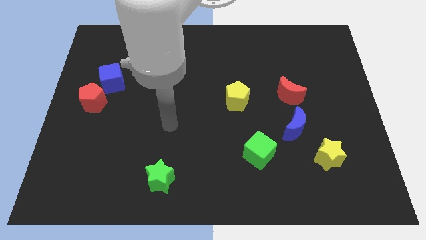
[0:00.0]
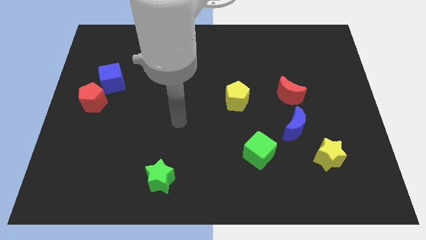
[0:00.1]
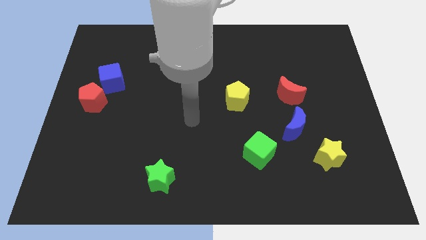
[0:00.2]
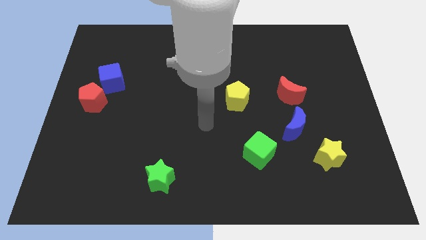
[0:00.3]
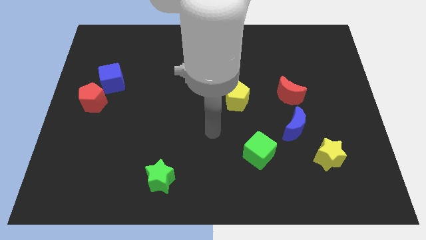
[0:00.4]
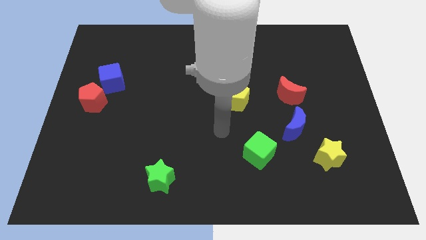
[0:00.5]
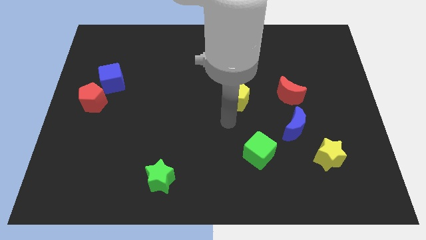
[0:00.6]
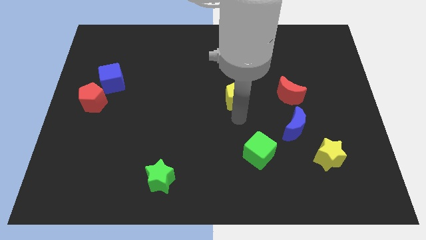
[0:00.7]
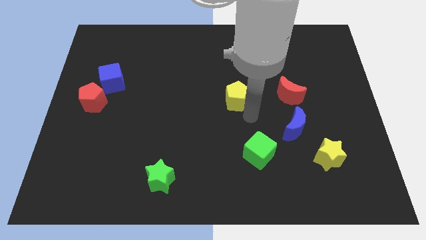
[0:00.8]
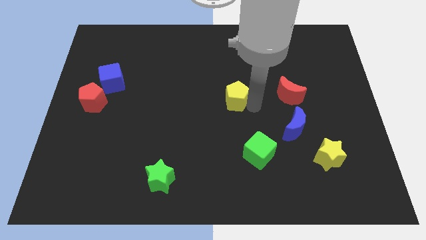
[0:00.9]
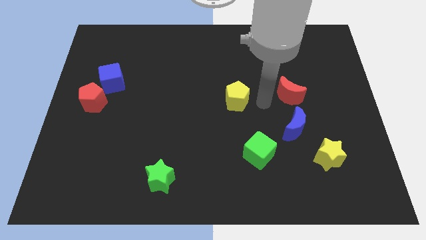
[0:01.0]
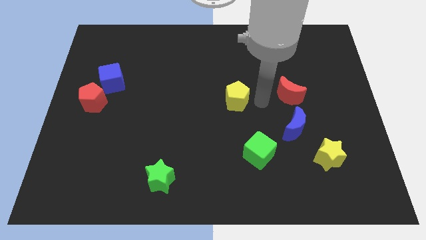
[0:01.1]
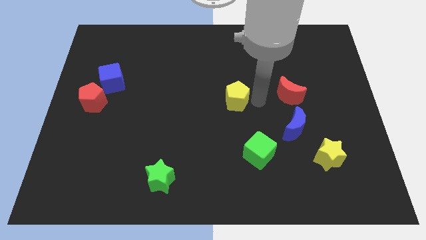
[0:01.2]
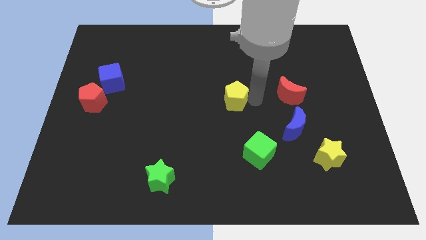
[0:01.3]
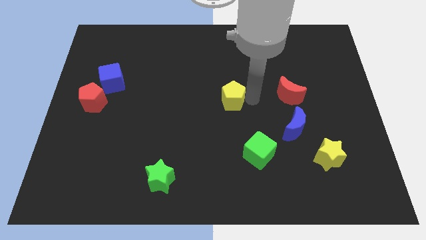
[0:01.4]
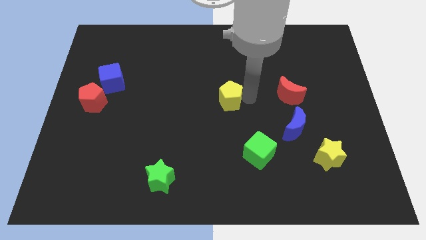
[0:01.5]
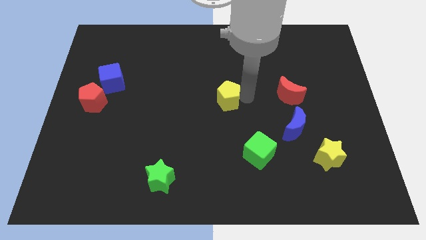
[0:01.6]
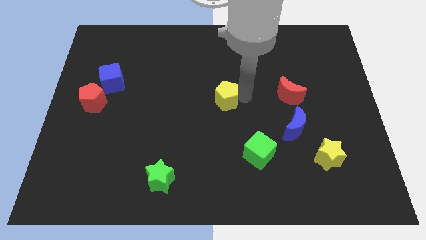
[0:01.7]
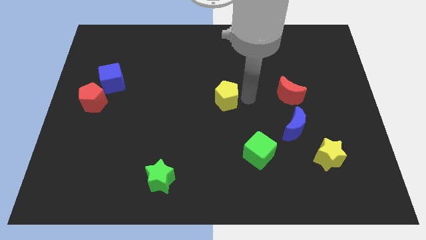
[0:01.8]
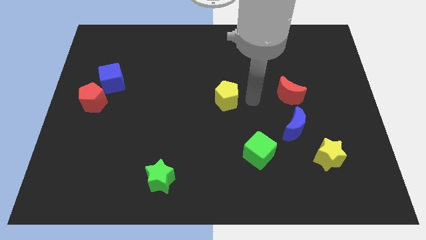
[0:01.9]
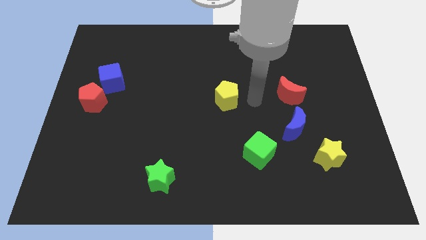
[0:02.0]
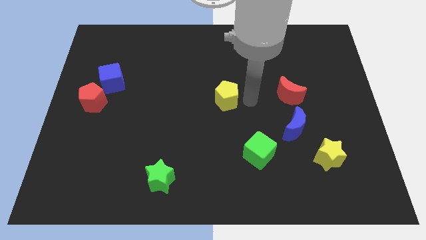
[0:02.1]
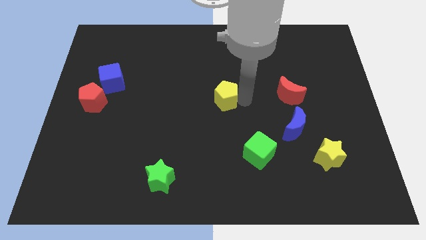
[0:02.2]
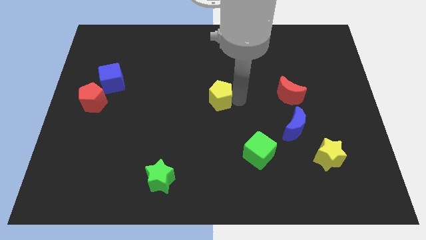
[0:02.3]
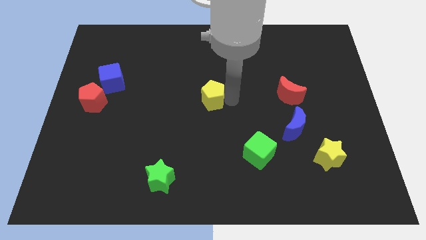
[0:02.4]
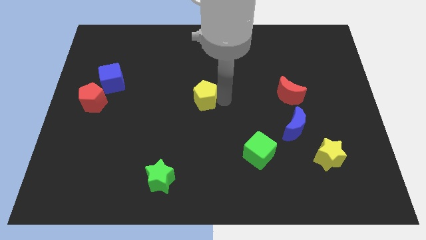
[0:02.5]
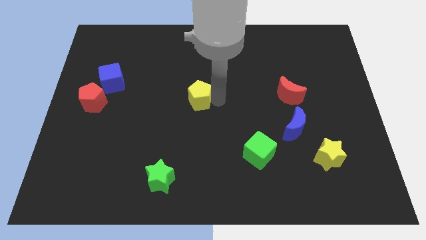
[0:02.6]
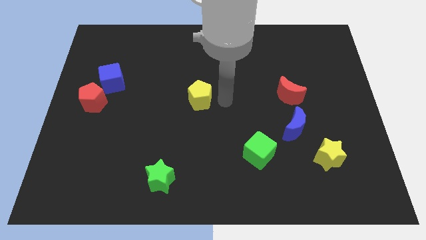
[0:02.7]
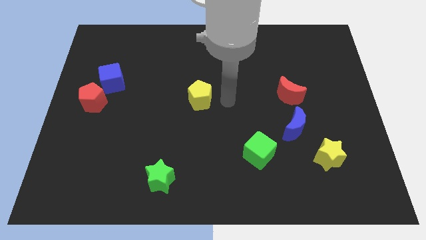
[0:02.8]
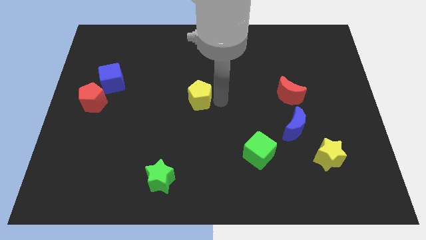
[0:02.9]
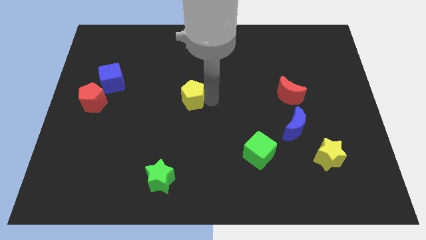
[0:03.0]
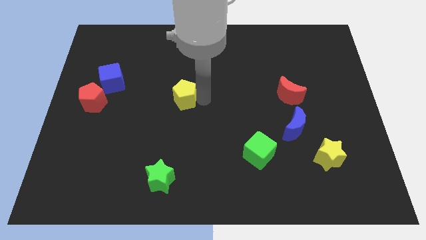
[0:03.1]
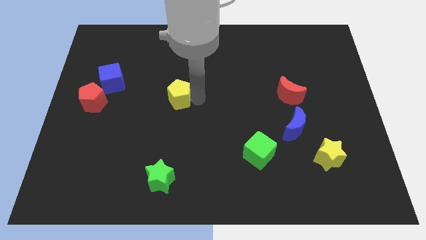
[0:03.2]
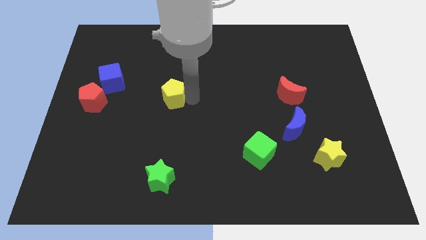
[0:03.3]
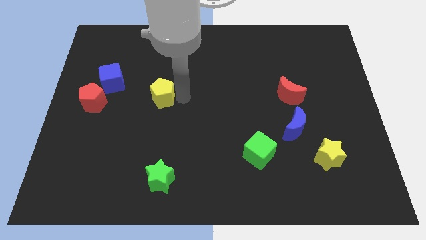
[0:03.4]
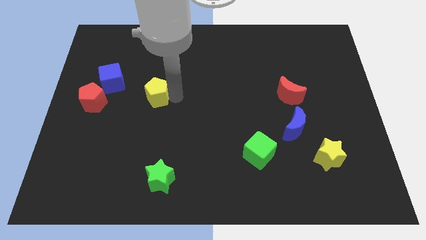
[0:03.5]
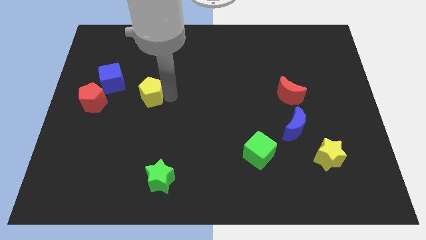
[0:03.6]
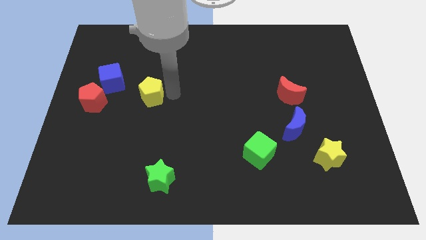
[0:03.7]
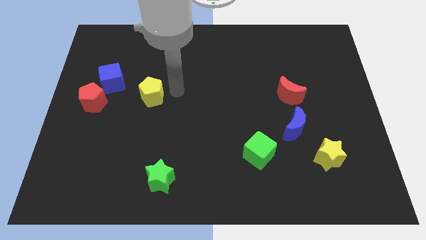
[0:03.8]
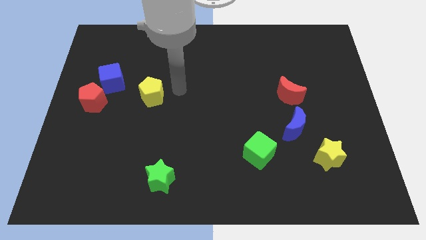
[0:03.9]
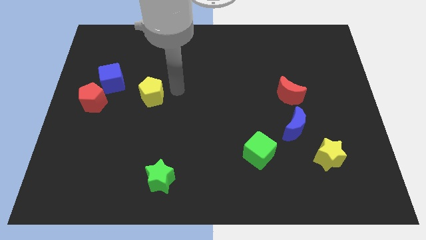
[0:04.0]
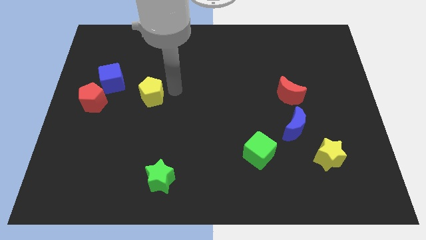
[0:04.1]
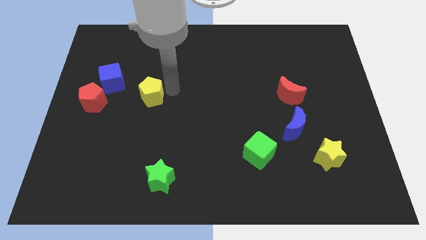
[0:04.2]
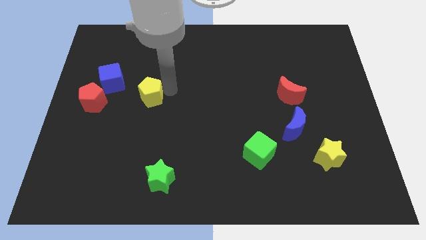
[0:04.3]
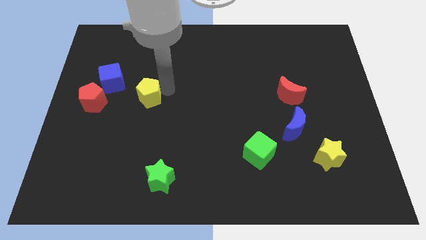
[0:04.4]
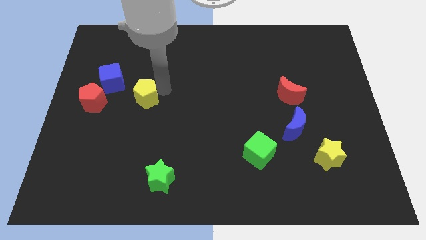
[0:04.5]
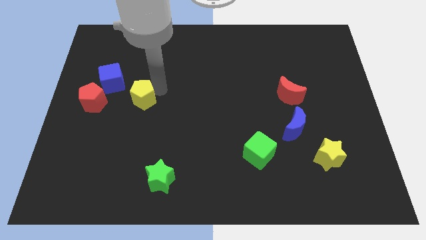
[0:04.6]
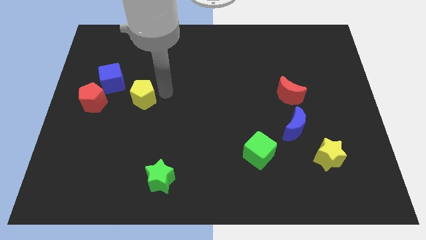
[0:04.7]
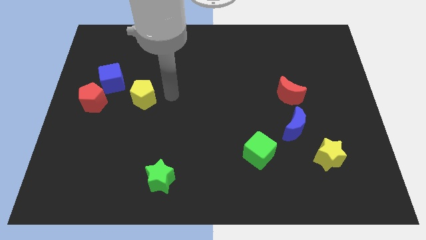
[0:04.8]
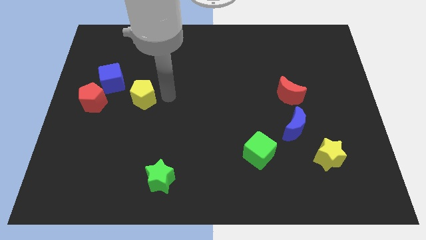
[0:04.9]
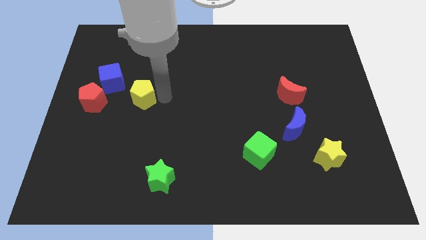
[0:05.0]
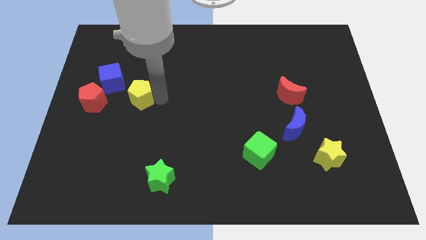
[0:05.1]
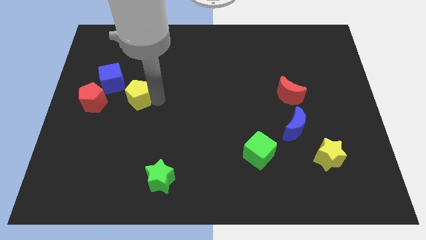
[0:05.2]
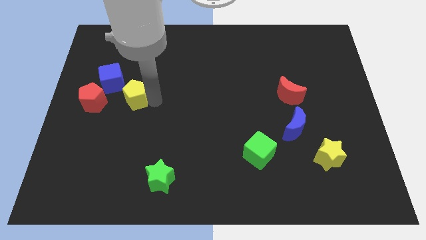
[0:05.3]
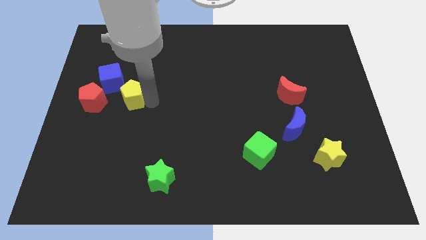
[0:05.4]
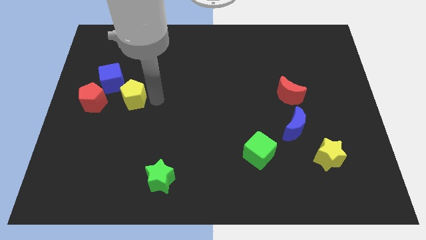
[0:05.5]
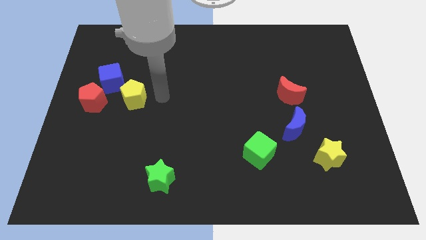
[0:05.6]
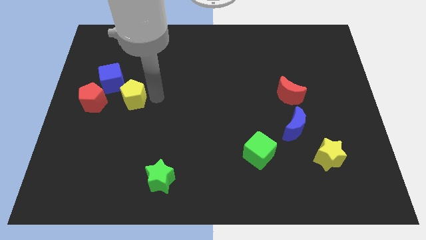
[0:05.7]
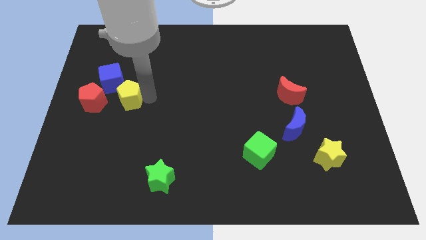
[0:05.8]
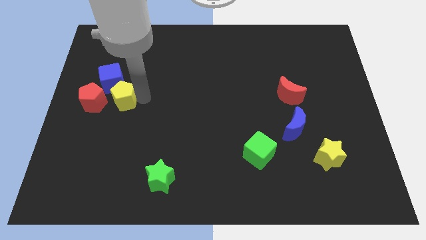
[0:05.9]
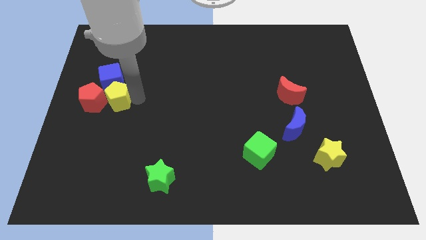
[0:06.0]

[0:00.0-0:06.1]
slide the yellow pentagon close to the red pentagon

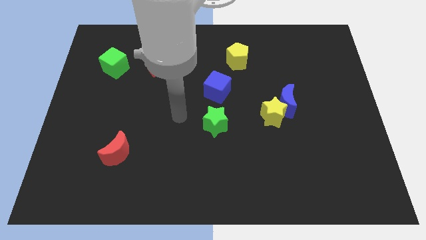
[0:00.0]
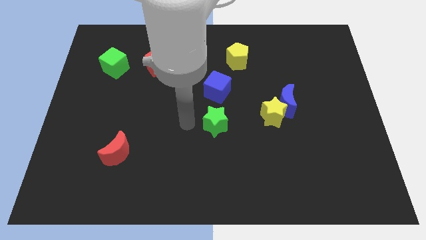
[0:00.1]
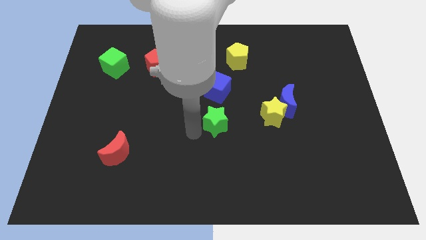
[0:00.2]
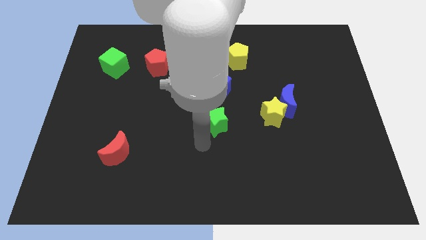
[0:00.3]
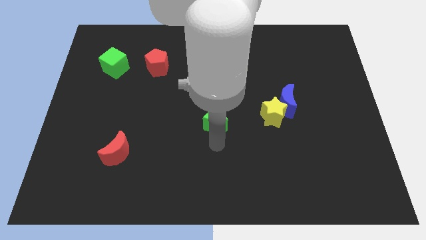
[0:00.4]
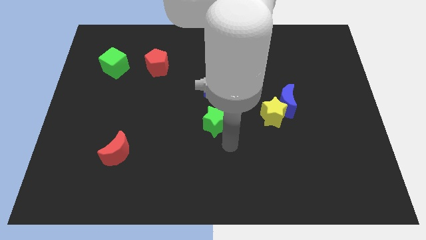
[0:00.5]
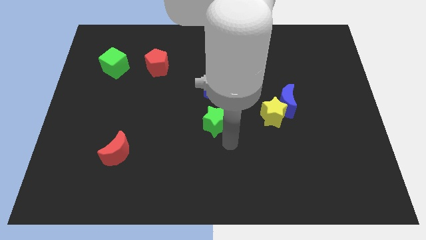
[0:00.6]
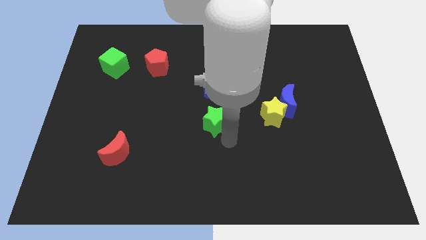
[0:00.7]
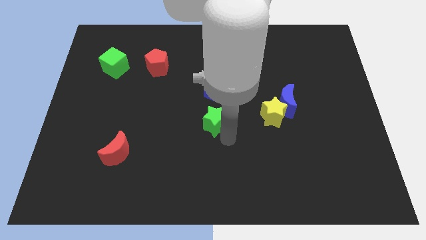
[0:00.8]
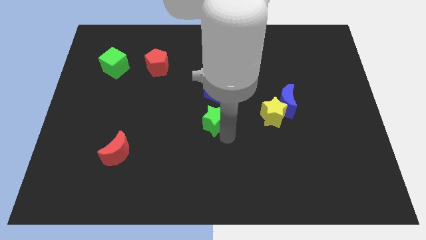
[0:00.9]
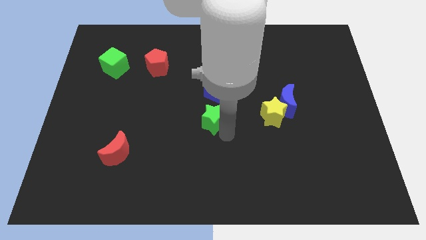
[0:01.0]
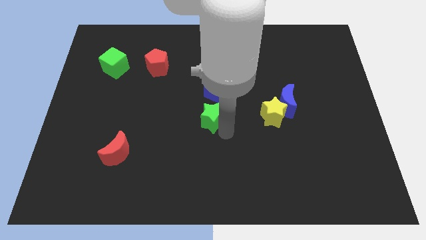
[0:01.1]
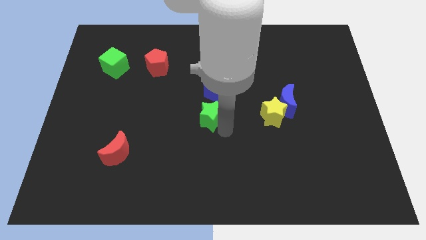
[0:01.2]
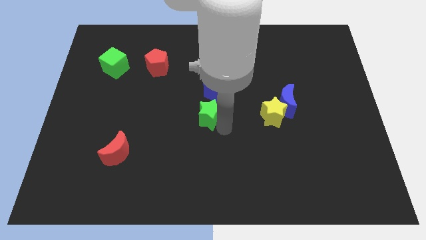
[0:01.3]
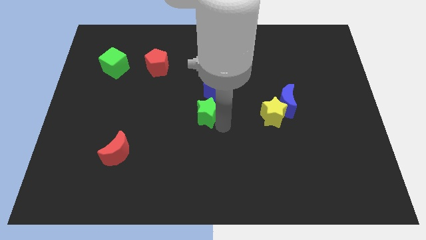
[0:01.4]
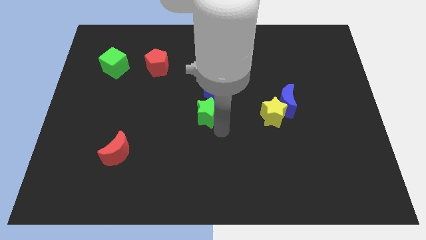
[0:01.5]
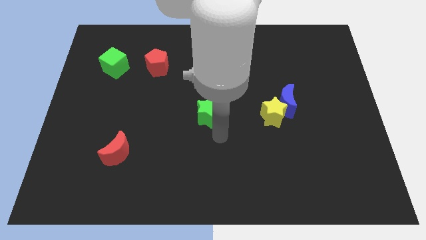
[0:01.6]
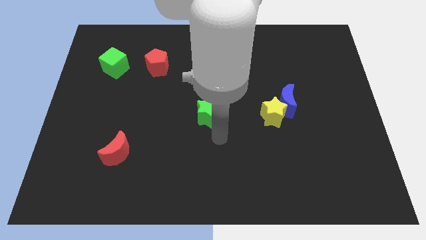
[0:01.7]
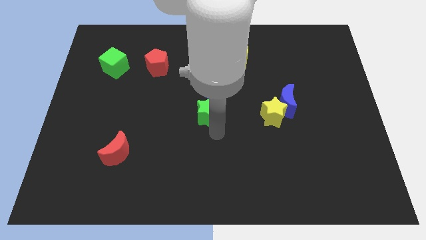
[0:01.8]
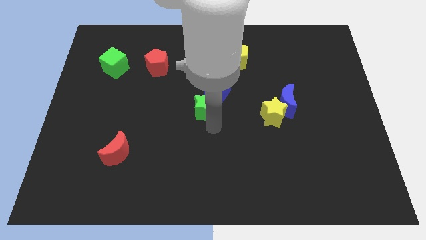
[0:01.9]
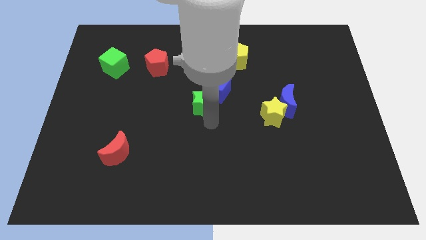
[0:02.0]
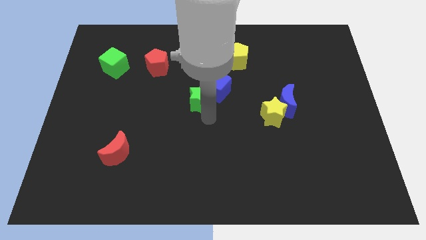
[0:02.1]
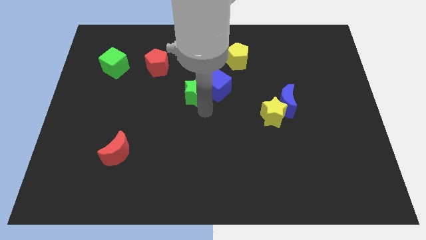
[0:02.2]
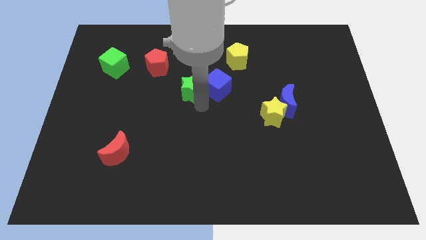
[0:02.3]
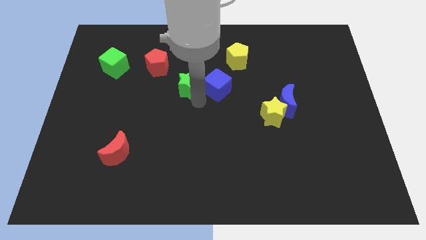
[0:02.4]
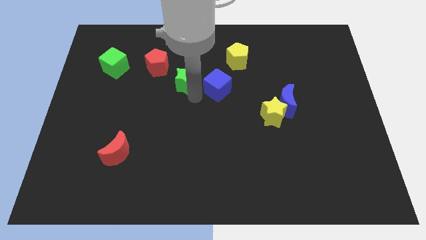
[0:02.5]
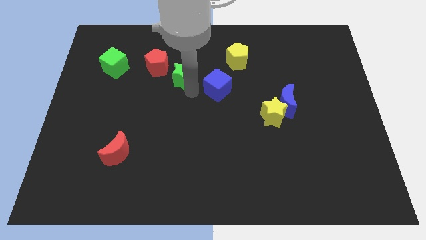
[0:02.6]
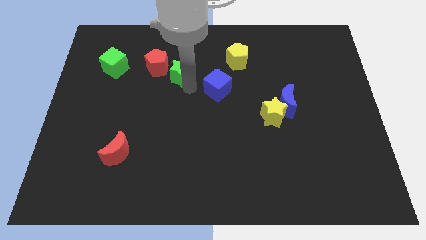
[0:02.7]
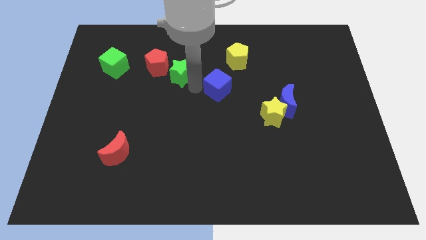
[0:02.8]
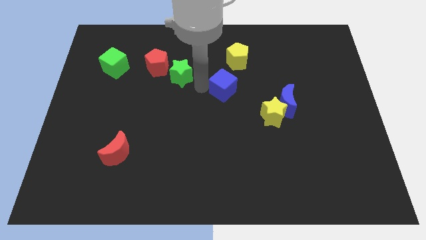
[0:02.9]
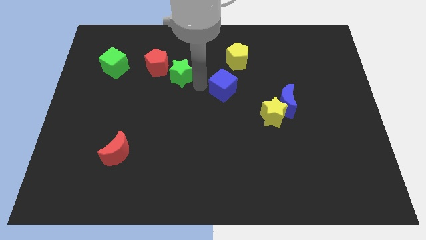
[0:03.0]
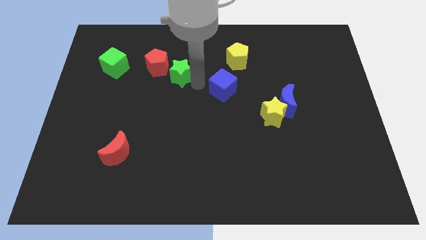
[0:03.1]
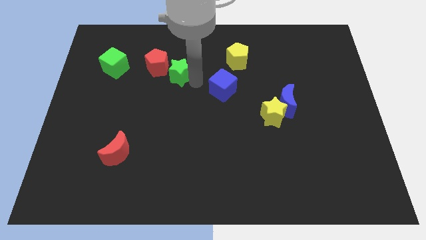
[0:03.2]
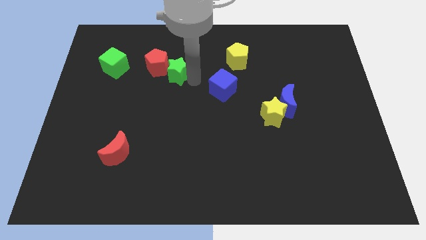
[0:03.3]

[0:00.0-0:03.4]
put the green star close to the red pentagon
